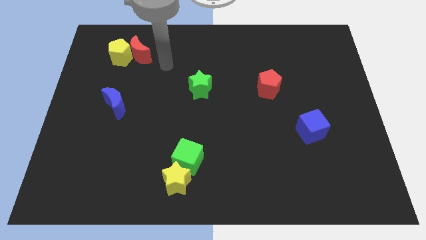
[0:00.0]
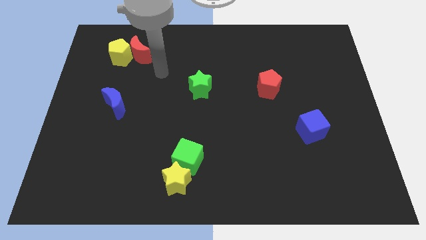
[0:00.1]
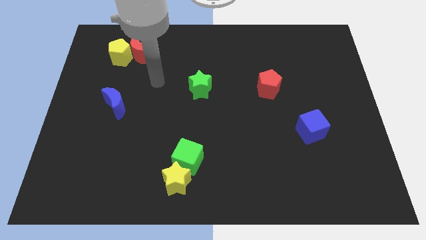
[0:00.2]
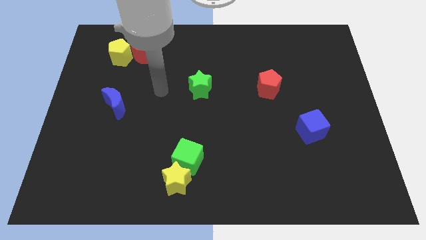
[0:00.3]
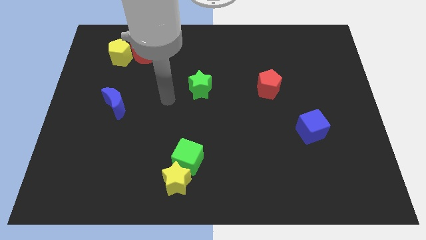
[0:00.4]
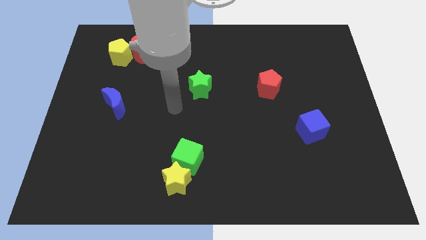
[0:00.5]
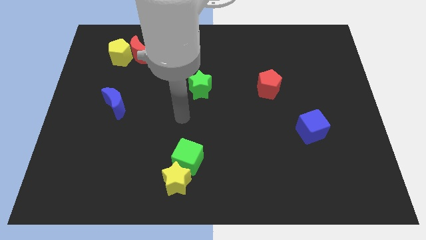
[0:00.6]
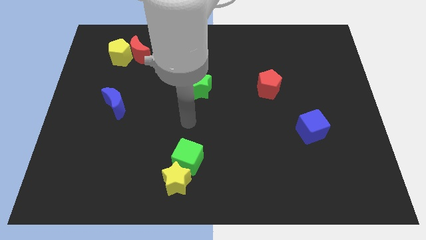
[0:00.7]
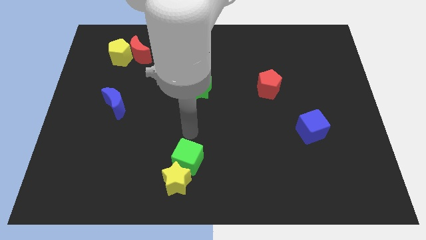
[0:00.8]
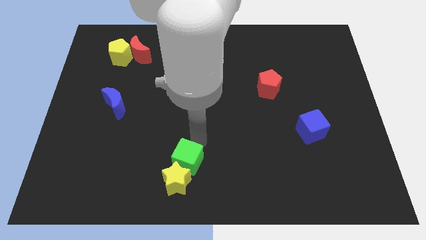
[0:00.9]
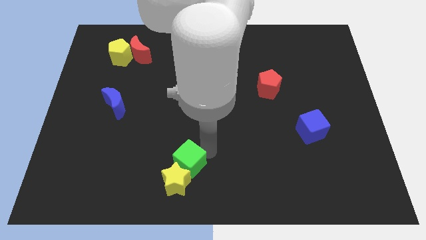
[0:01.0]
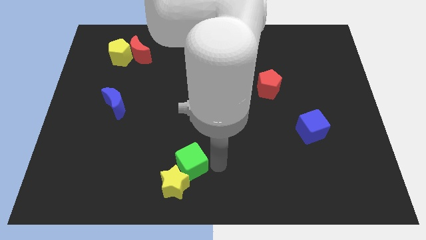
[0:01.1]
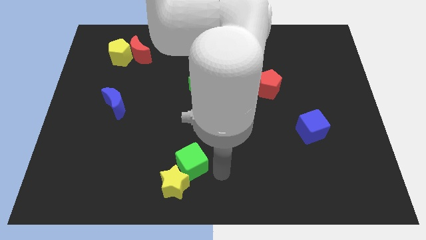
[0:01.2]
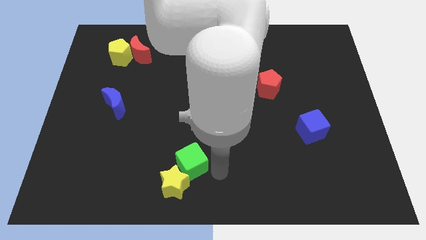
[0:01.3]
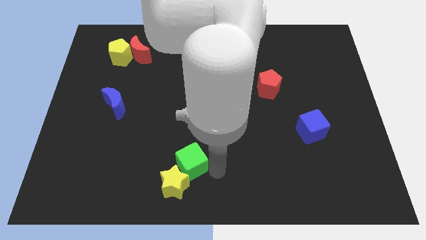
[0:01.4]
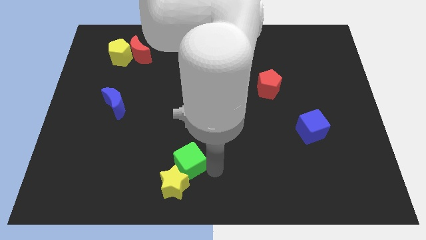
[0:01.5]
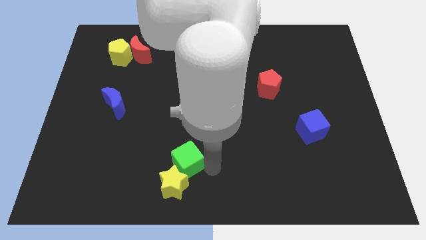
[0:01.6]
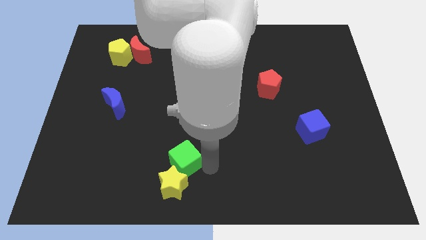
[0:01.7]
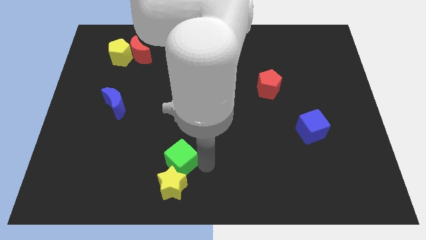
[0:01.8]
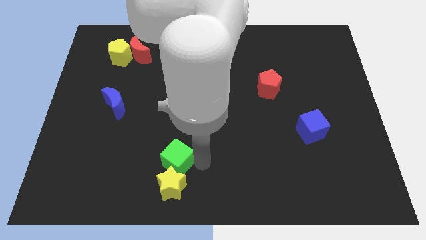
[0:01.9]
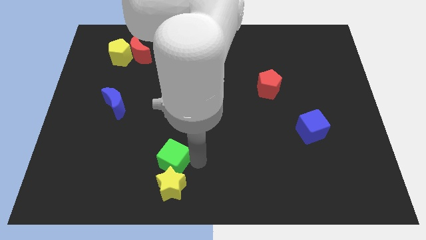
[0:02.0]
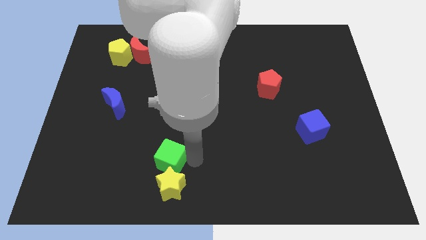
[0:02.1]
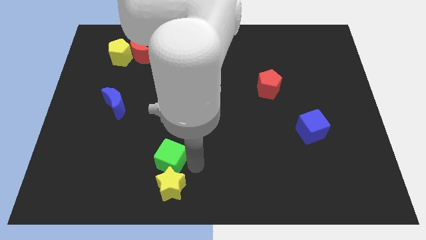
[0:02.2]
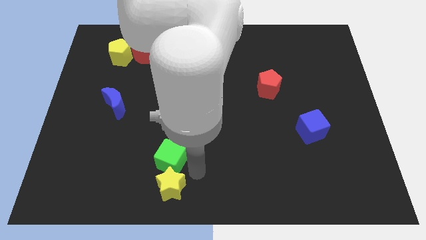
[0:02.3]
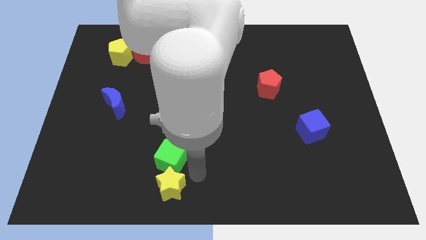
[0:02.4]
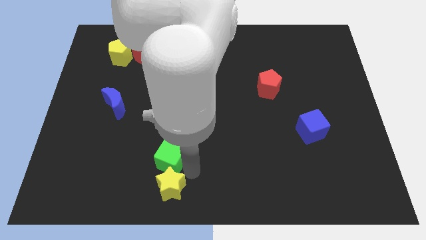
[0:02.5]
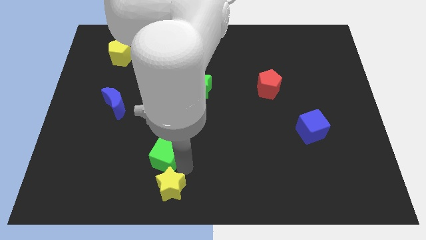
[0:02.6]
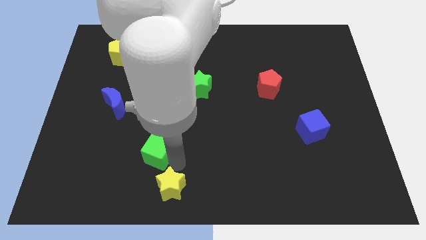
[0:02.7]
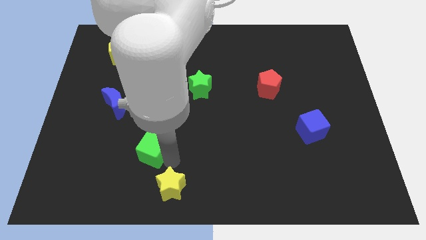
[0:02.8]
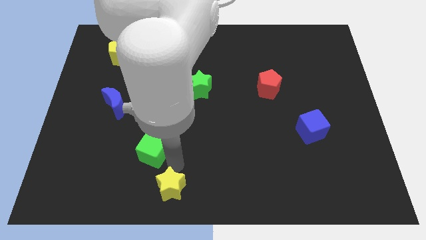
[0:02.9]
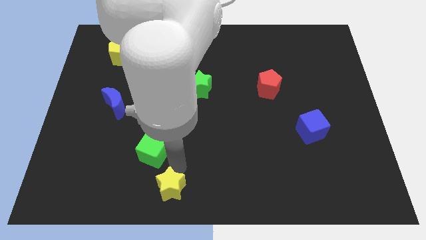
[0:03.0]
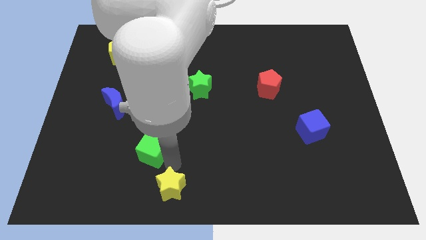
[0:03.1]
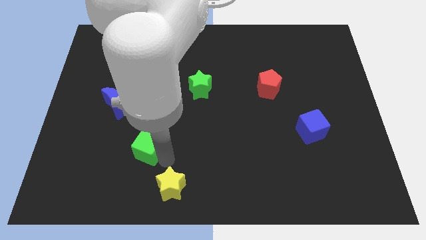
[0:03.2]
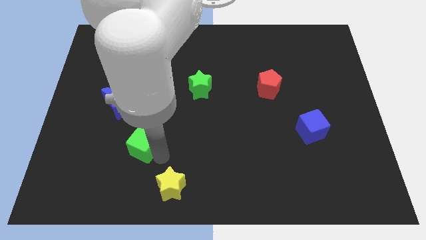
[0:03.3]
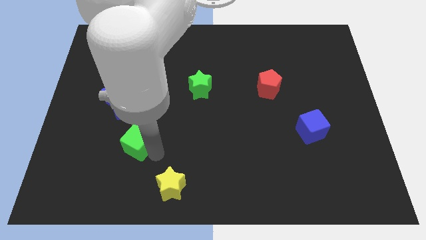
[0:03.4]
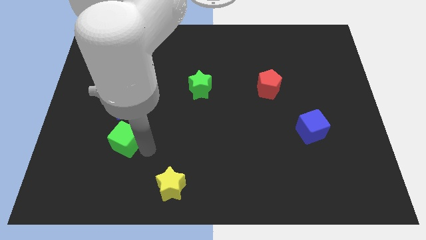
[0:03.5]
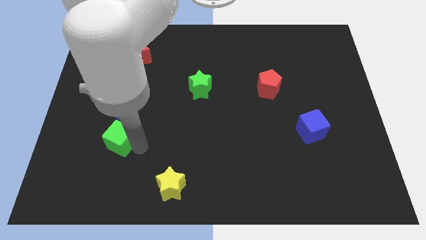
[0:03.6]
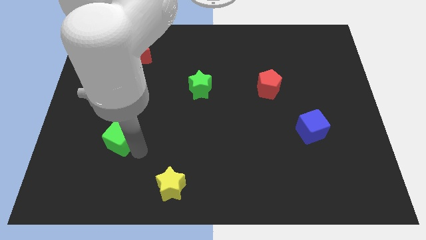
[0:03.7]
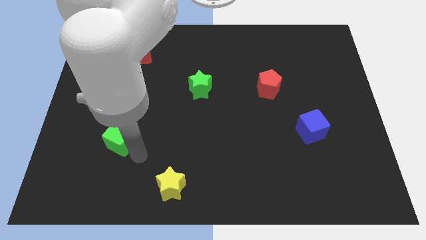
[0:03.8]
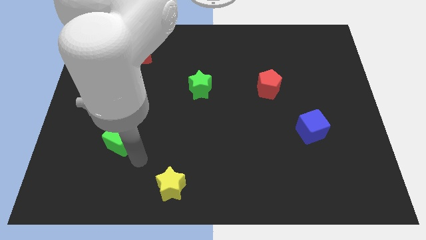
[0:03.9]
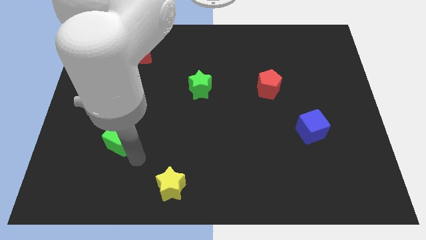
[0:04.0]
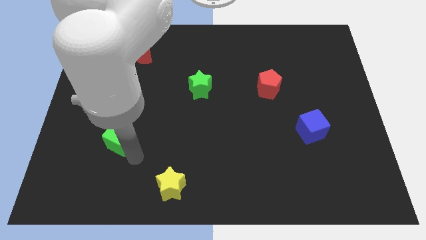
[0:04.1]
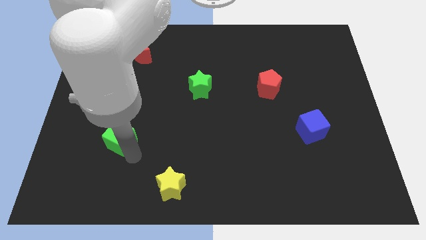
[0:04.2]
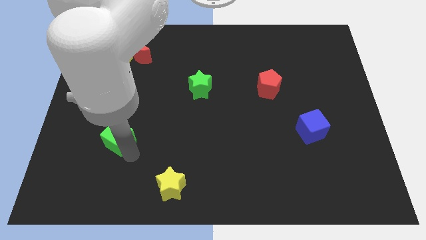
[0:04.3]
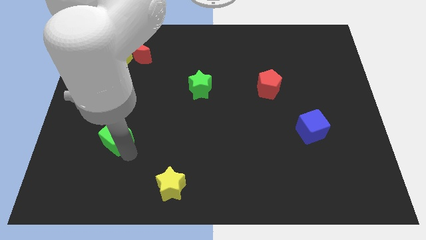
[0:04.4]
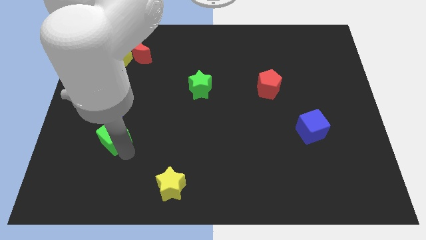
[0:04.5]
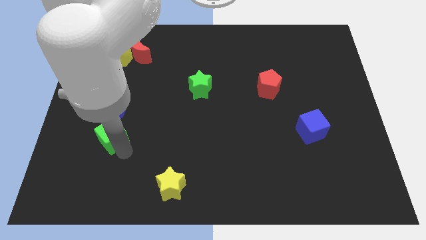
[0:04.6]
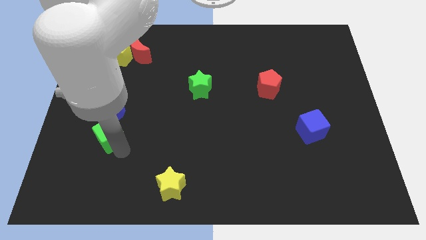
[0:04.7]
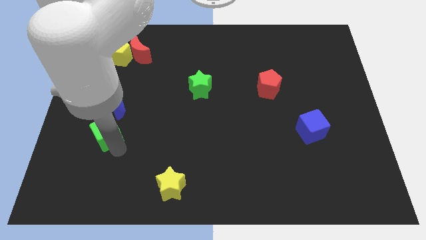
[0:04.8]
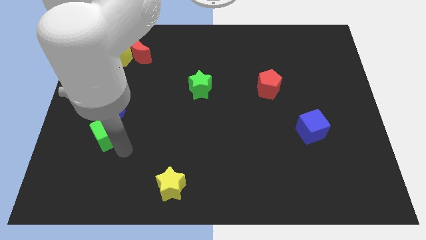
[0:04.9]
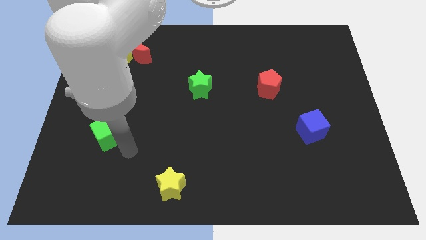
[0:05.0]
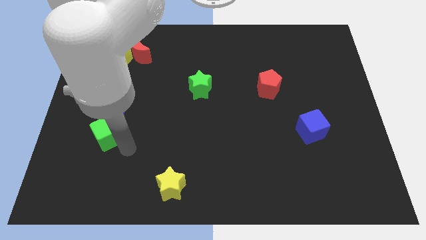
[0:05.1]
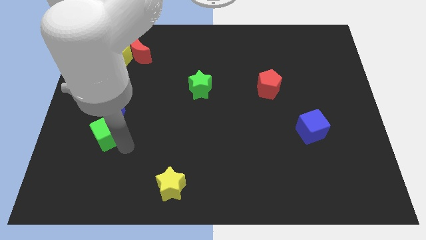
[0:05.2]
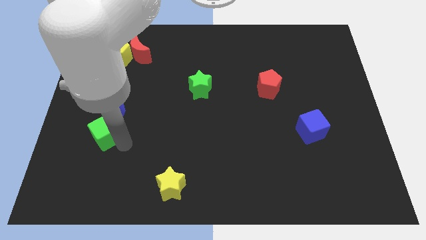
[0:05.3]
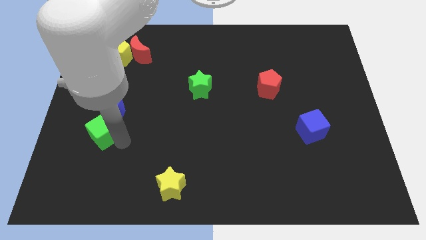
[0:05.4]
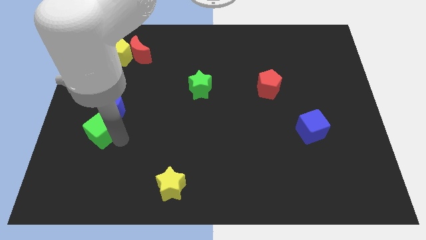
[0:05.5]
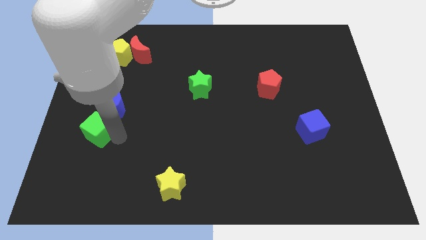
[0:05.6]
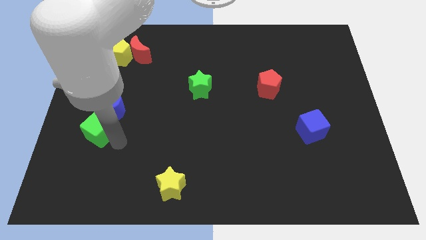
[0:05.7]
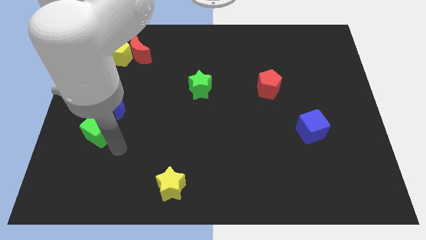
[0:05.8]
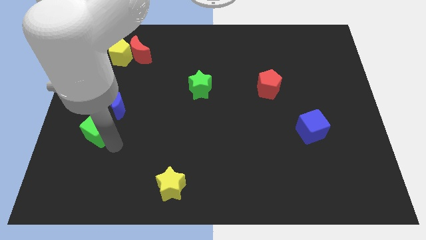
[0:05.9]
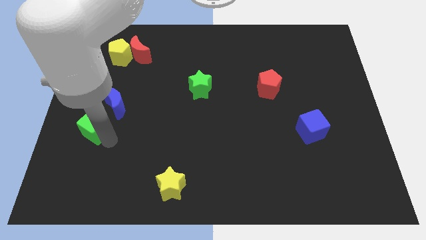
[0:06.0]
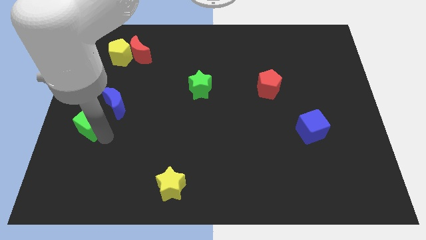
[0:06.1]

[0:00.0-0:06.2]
put the green cube to the left side

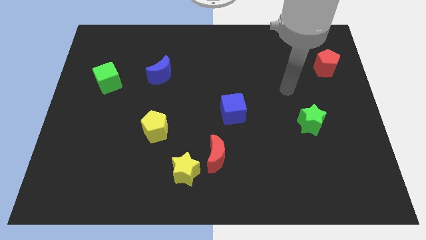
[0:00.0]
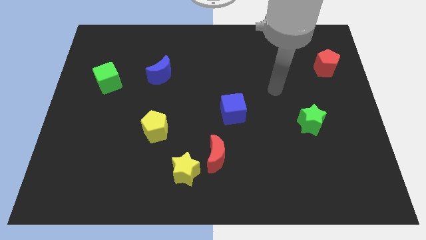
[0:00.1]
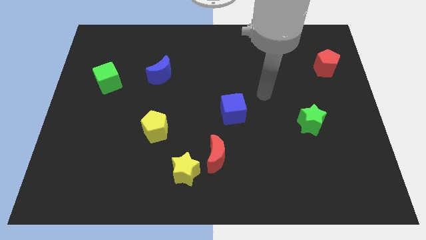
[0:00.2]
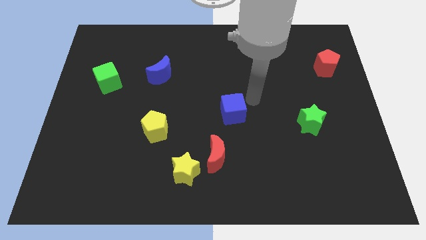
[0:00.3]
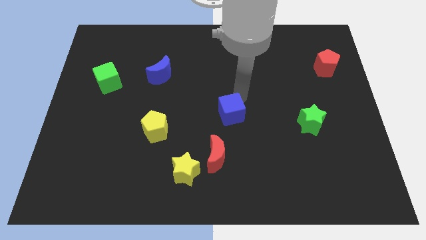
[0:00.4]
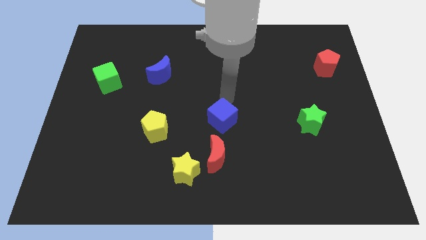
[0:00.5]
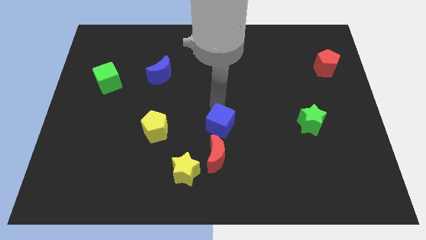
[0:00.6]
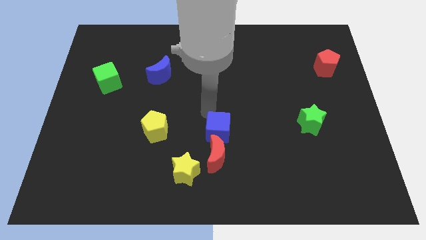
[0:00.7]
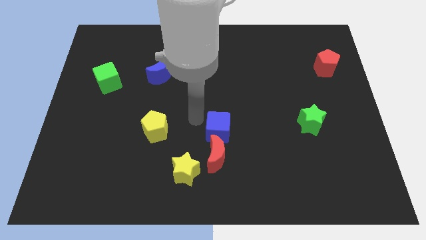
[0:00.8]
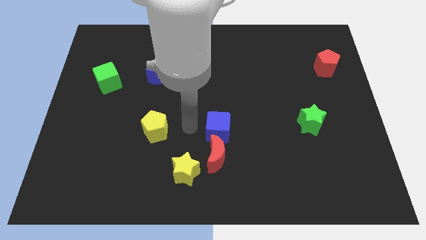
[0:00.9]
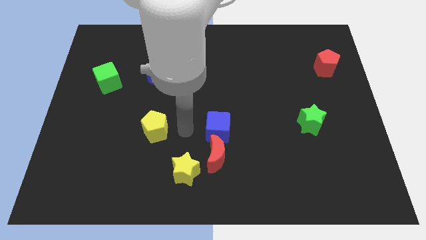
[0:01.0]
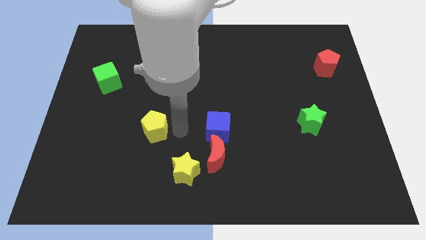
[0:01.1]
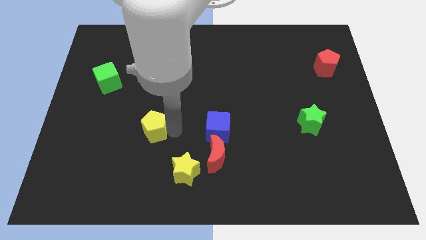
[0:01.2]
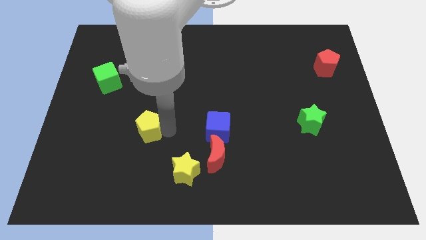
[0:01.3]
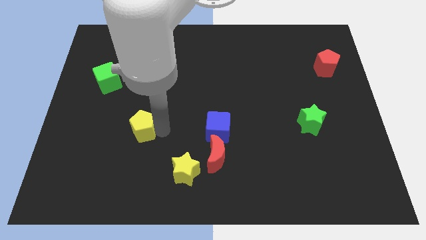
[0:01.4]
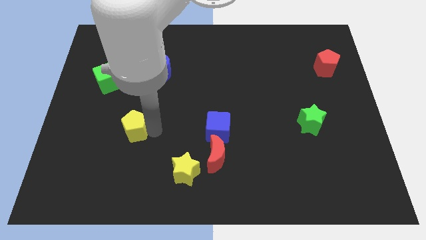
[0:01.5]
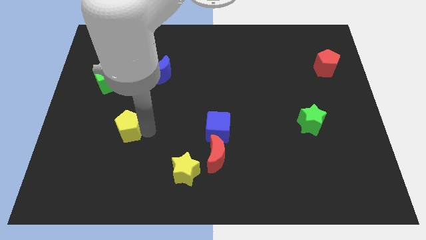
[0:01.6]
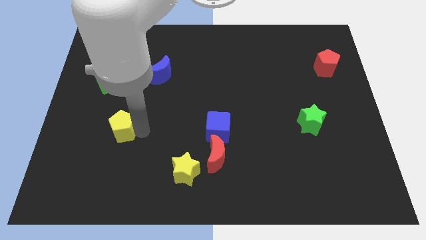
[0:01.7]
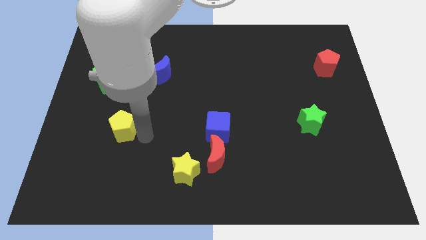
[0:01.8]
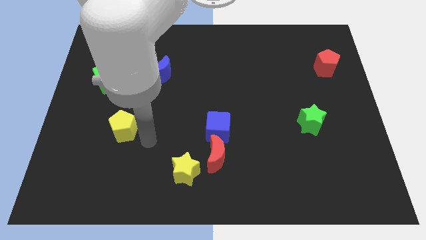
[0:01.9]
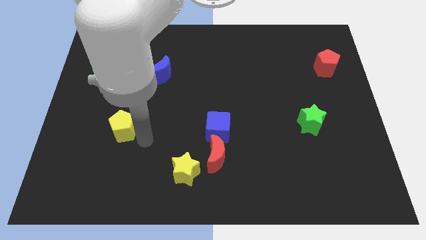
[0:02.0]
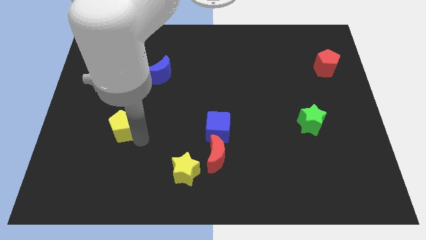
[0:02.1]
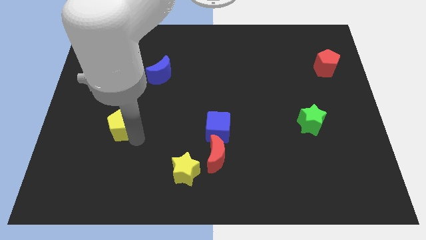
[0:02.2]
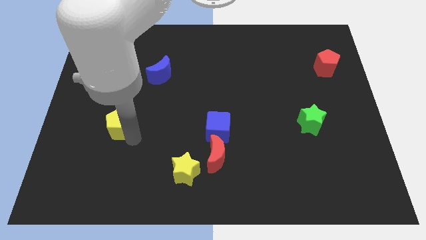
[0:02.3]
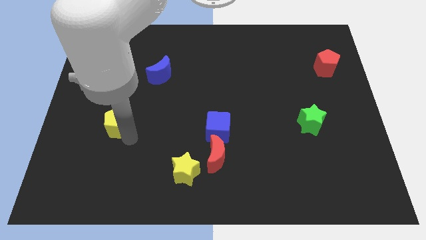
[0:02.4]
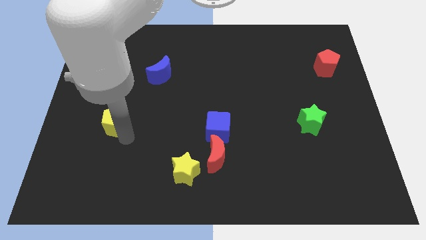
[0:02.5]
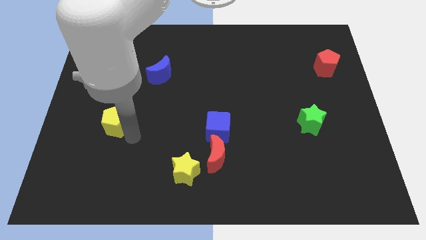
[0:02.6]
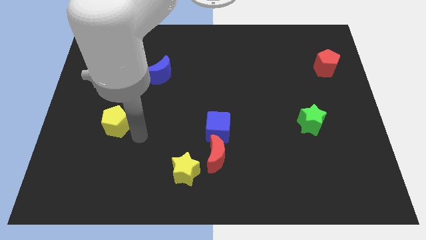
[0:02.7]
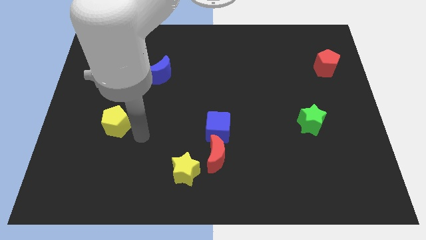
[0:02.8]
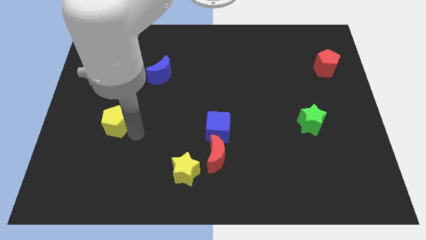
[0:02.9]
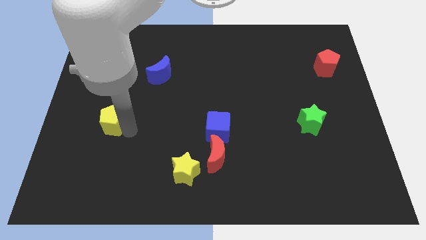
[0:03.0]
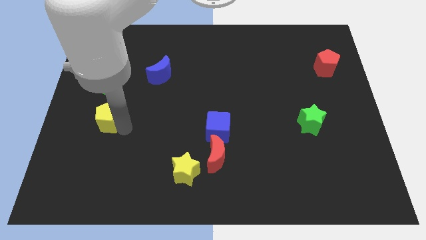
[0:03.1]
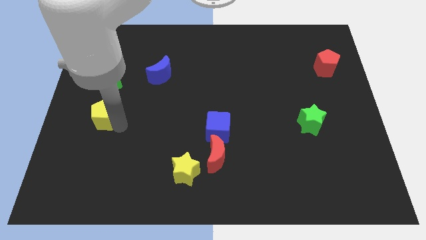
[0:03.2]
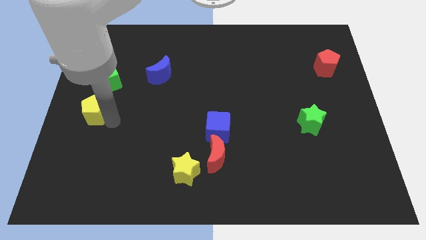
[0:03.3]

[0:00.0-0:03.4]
put the yellow pentagon to the center left
